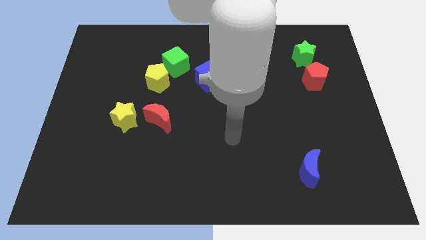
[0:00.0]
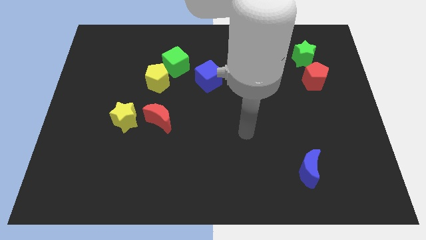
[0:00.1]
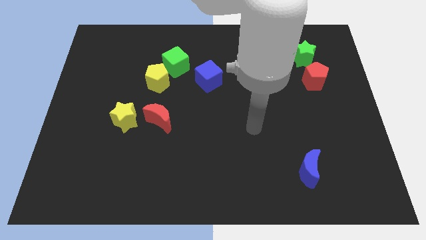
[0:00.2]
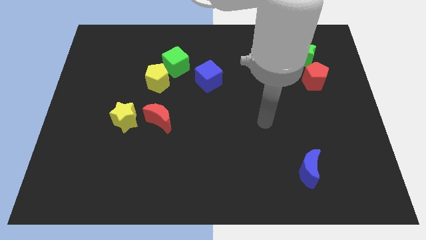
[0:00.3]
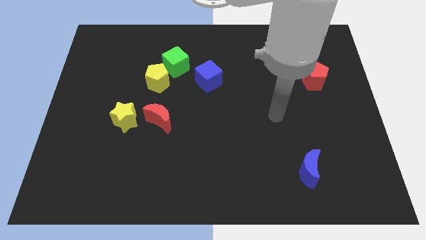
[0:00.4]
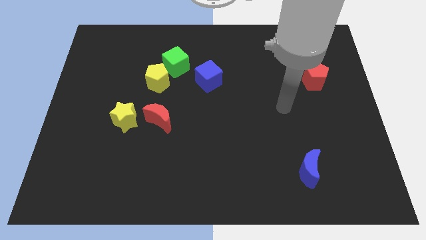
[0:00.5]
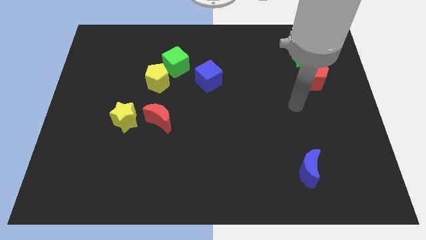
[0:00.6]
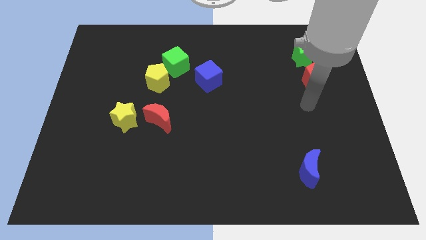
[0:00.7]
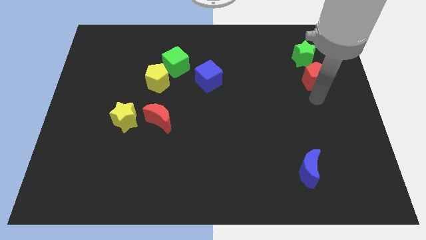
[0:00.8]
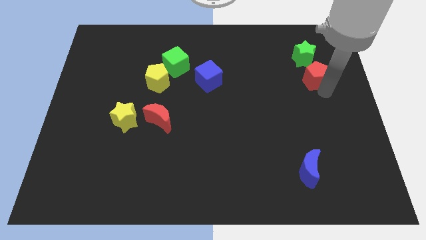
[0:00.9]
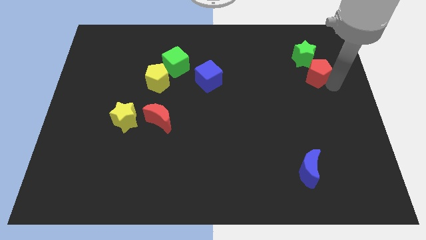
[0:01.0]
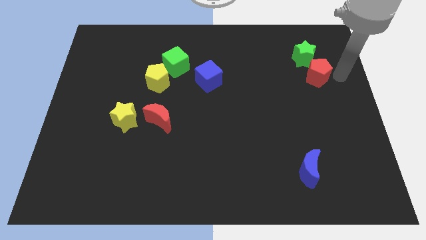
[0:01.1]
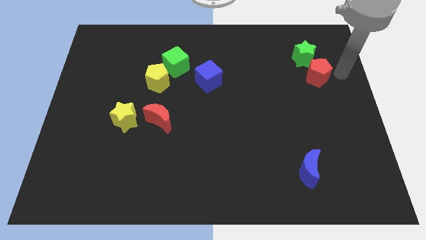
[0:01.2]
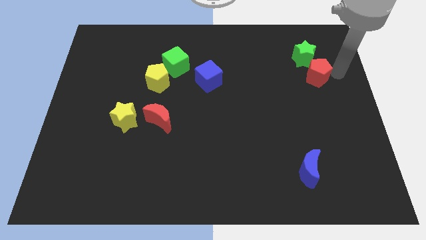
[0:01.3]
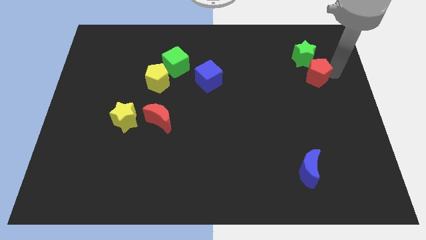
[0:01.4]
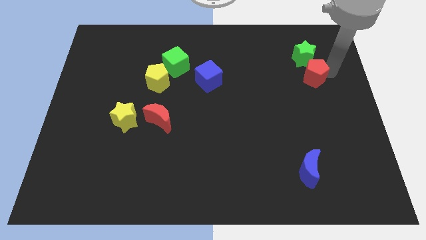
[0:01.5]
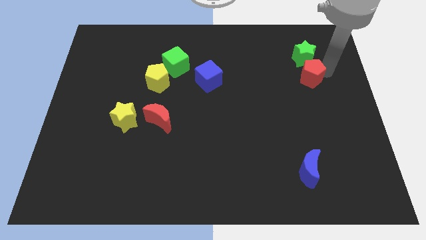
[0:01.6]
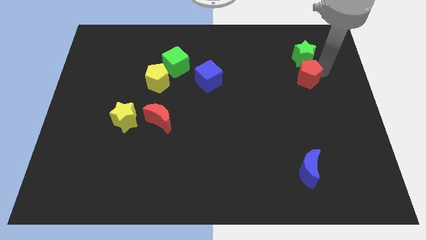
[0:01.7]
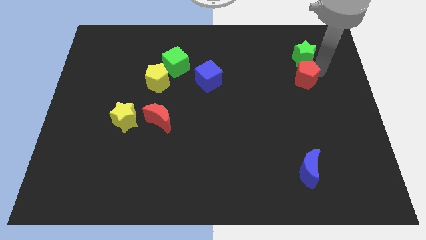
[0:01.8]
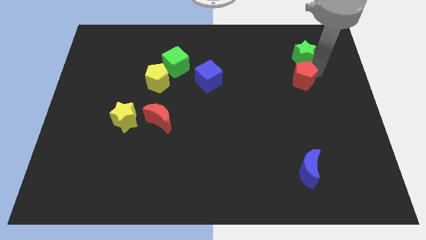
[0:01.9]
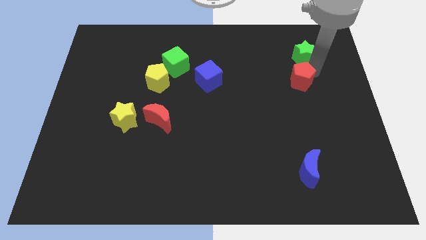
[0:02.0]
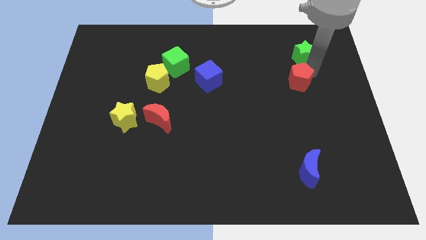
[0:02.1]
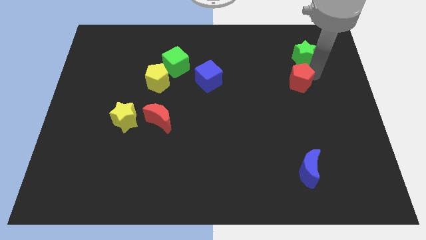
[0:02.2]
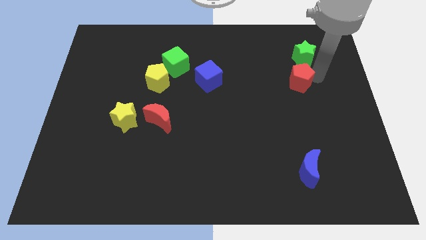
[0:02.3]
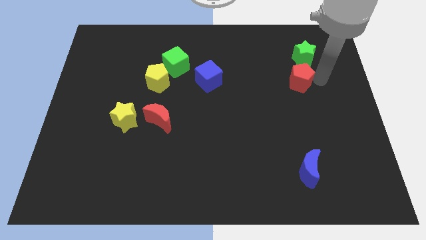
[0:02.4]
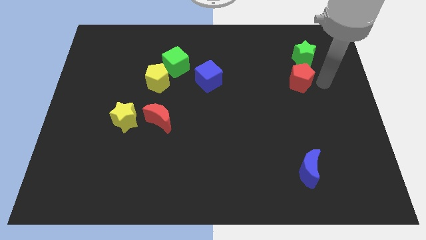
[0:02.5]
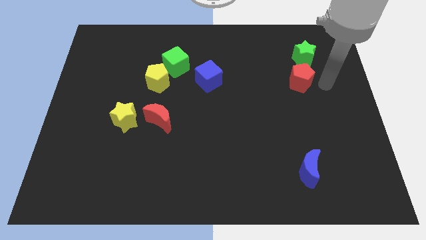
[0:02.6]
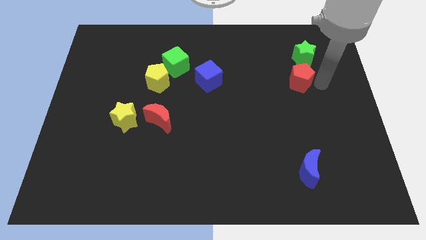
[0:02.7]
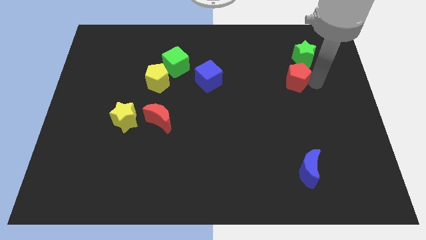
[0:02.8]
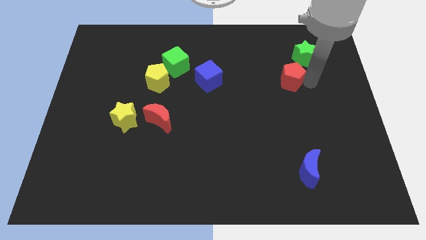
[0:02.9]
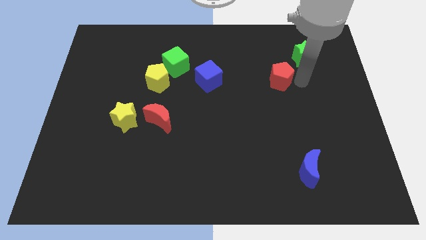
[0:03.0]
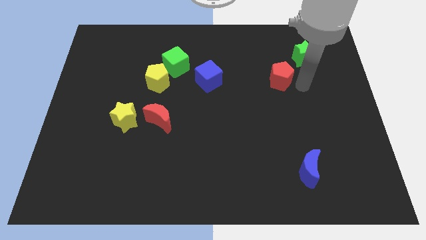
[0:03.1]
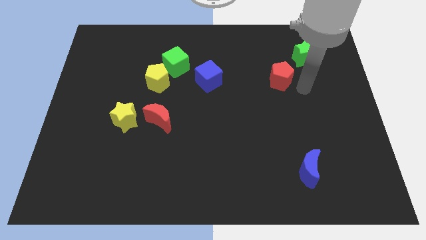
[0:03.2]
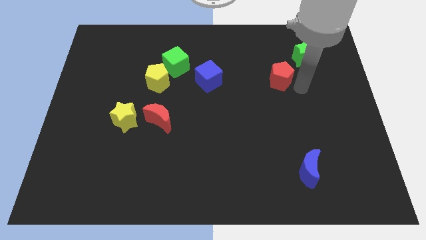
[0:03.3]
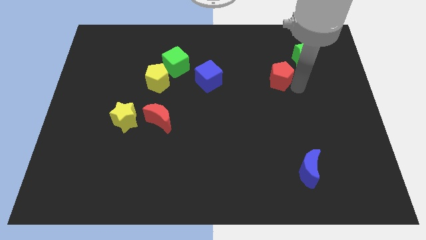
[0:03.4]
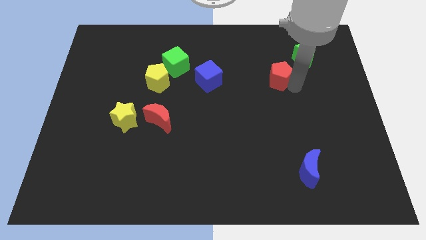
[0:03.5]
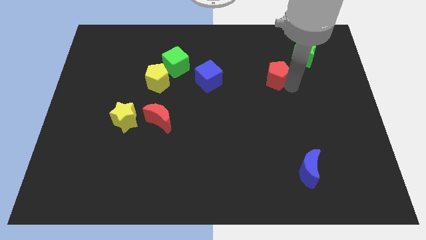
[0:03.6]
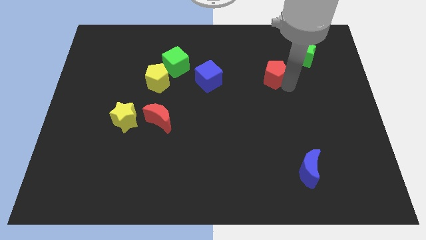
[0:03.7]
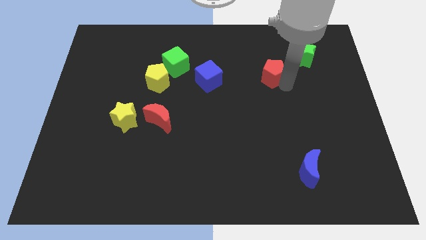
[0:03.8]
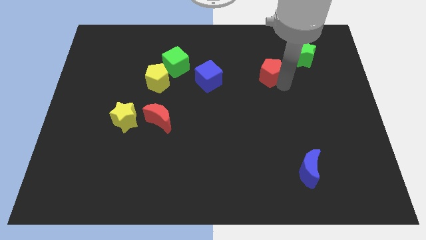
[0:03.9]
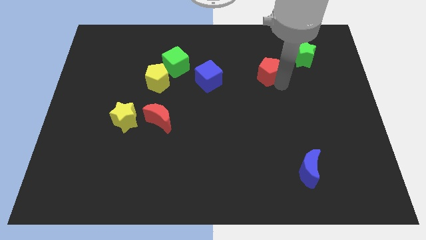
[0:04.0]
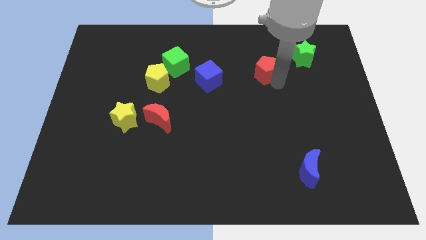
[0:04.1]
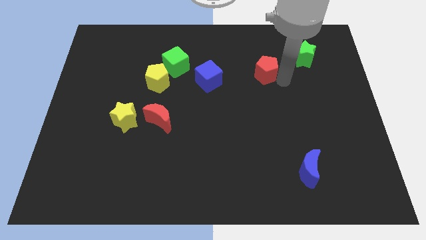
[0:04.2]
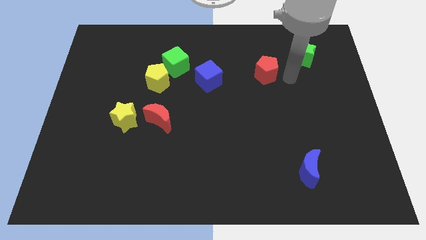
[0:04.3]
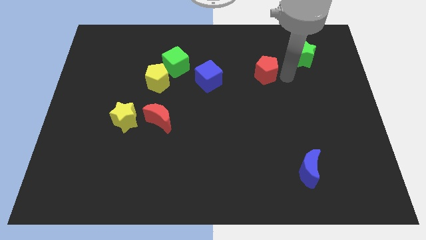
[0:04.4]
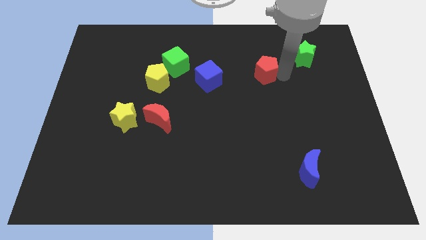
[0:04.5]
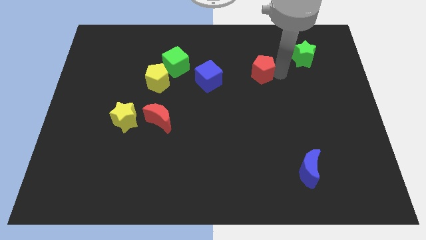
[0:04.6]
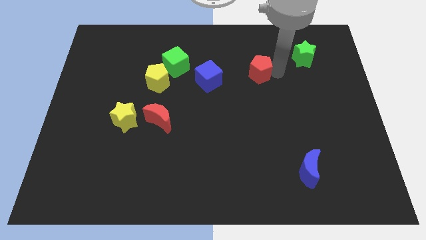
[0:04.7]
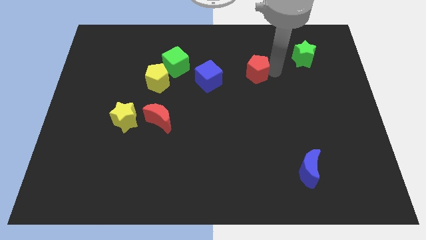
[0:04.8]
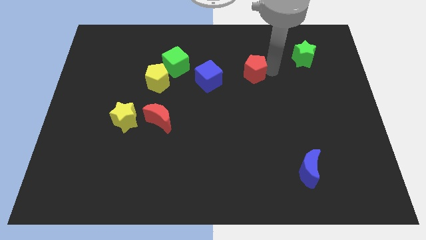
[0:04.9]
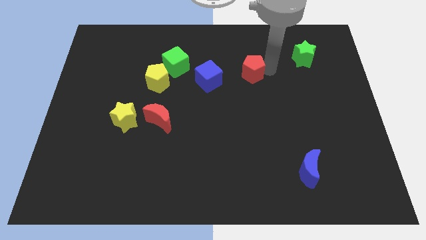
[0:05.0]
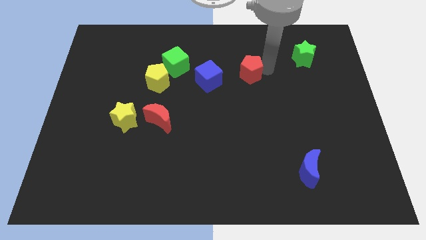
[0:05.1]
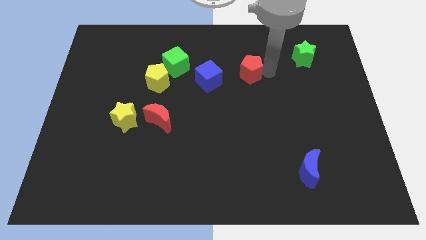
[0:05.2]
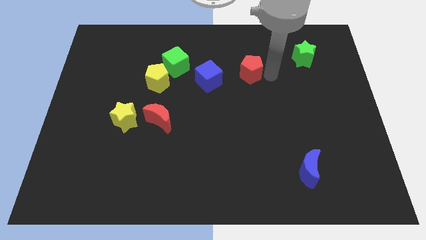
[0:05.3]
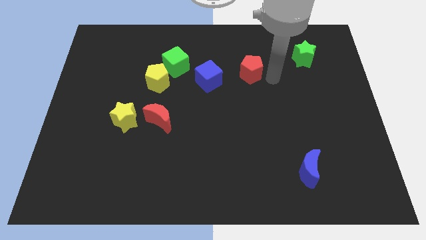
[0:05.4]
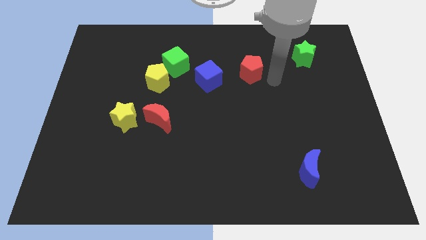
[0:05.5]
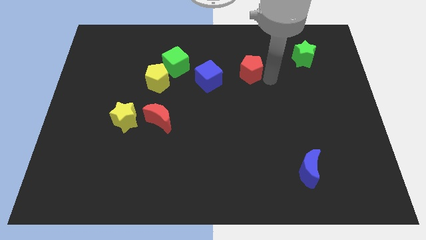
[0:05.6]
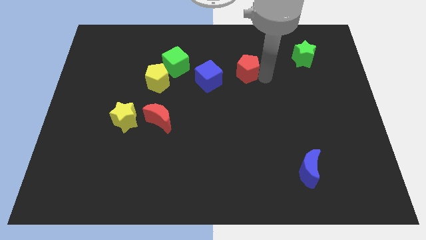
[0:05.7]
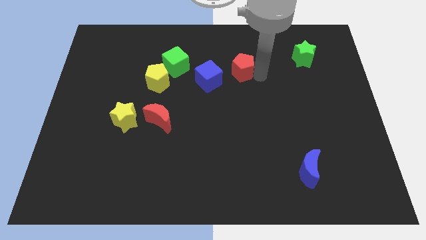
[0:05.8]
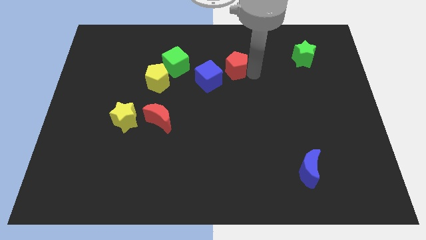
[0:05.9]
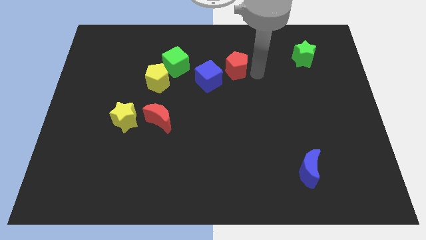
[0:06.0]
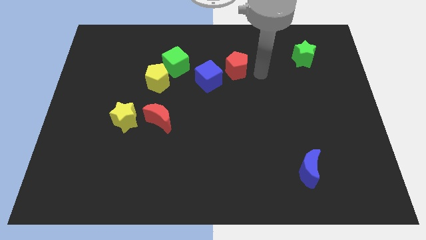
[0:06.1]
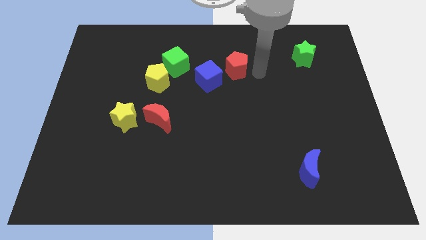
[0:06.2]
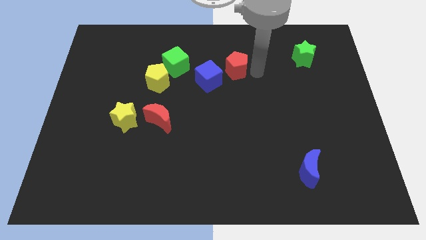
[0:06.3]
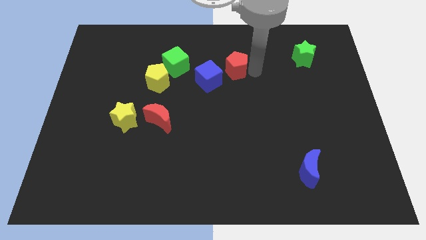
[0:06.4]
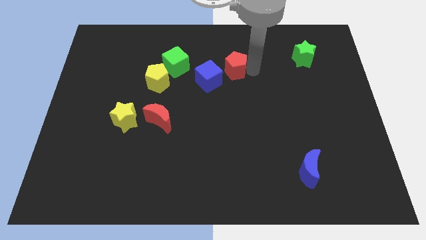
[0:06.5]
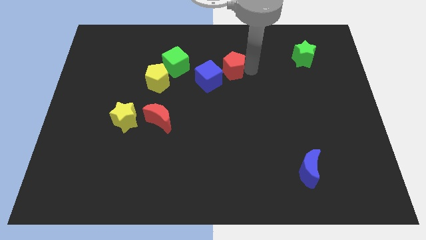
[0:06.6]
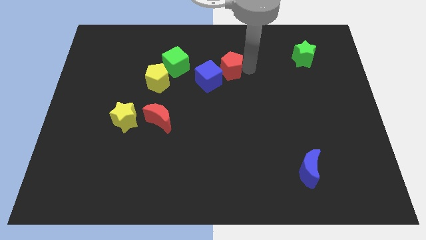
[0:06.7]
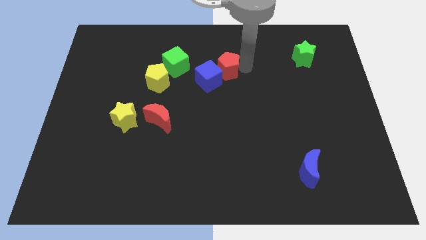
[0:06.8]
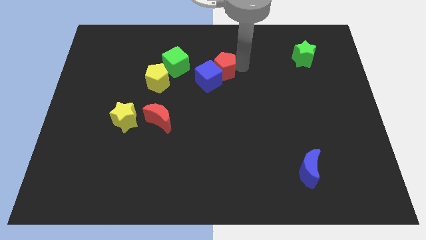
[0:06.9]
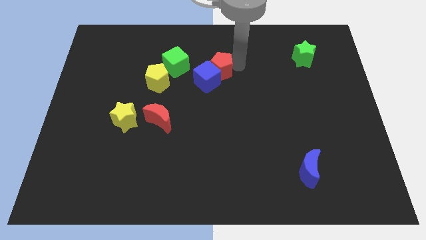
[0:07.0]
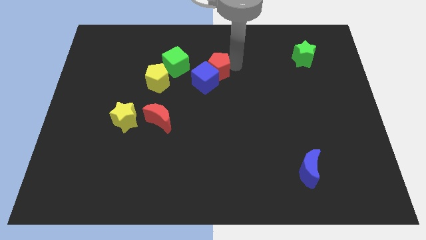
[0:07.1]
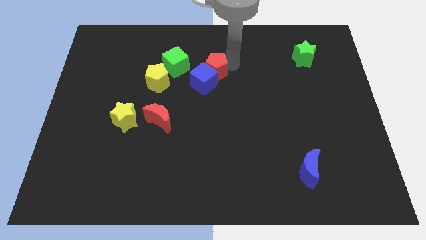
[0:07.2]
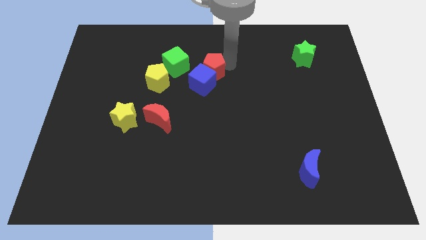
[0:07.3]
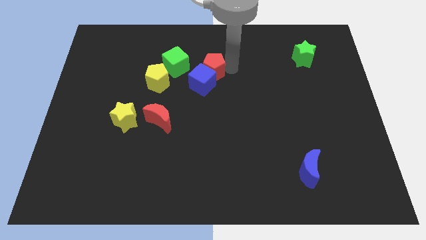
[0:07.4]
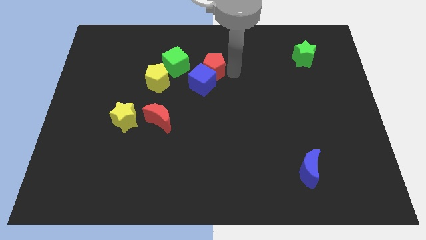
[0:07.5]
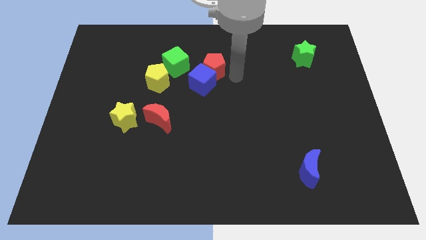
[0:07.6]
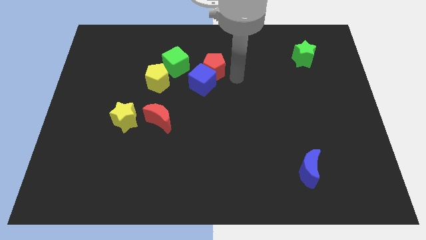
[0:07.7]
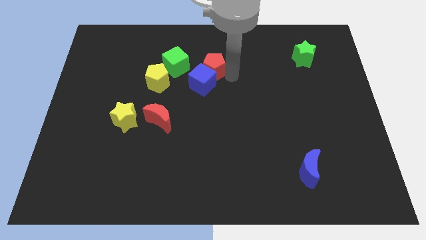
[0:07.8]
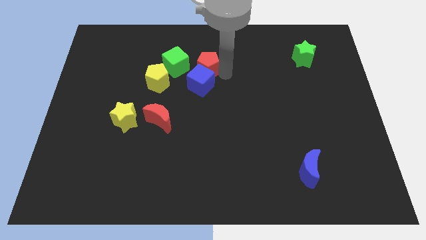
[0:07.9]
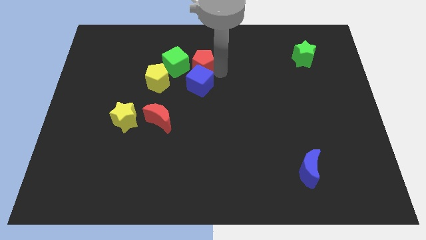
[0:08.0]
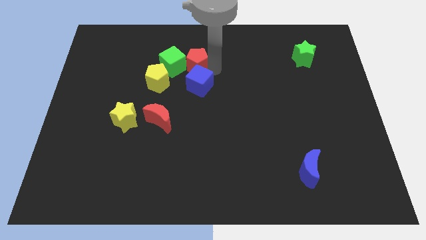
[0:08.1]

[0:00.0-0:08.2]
push the red pentagon to the green cube
